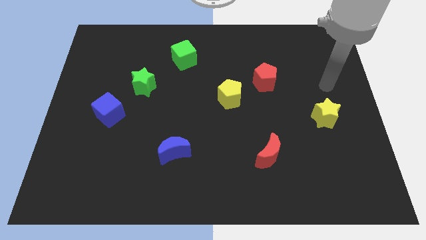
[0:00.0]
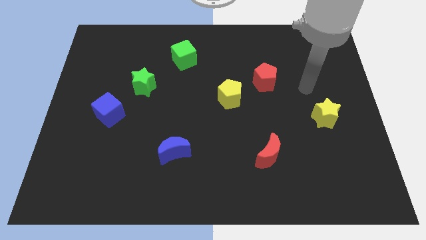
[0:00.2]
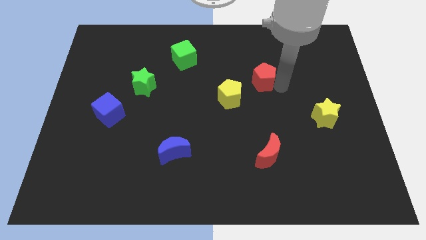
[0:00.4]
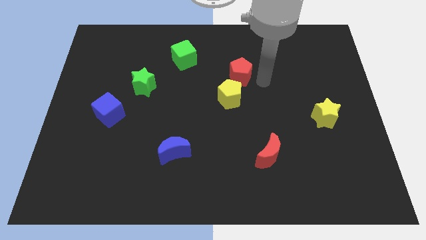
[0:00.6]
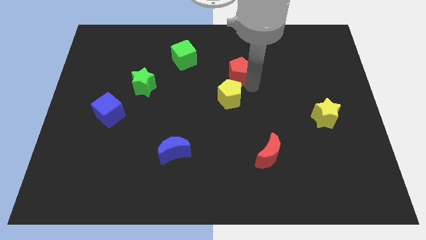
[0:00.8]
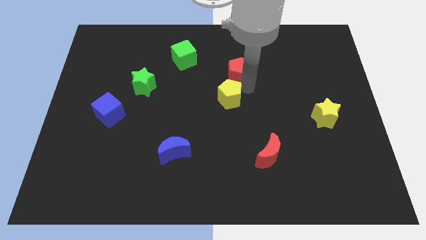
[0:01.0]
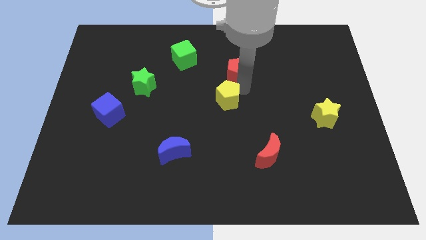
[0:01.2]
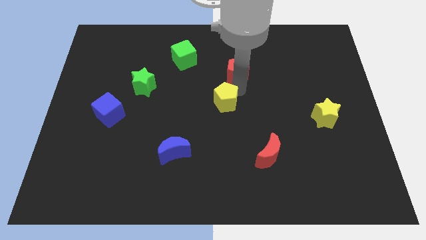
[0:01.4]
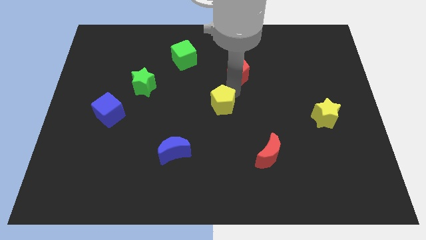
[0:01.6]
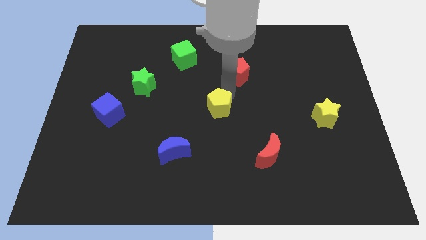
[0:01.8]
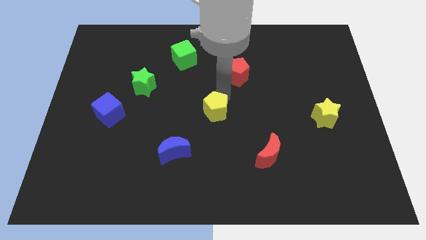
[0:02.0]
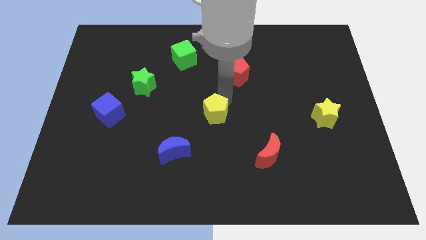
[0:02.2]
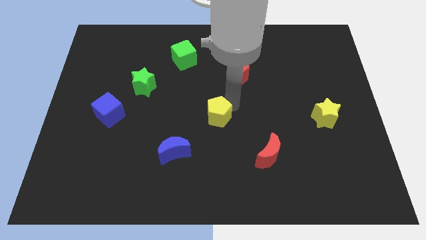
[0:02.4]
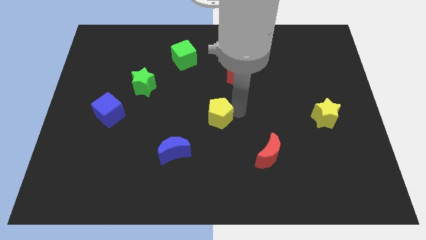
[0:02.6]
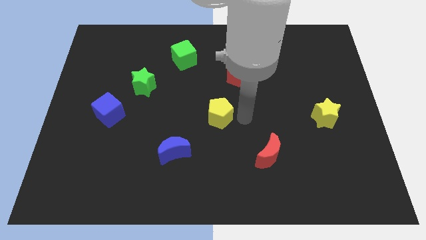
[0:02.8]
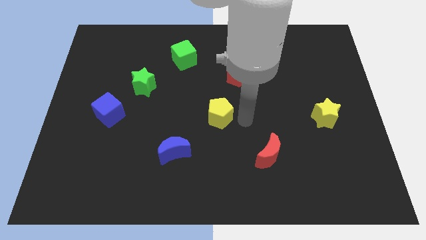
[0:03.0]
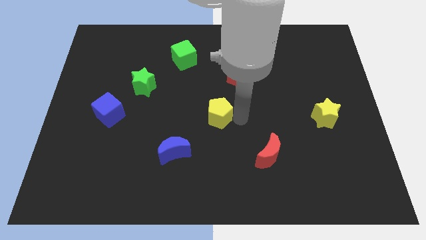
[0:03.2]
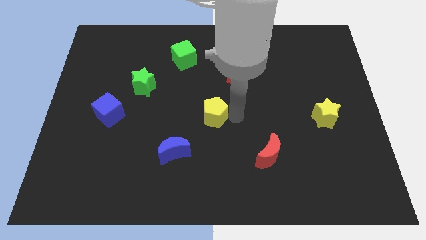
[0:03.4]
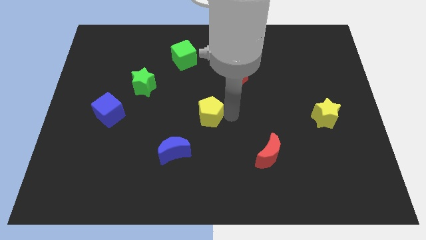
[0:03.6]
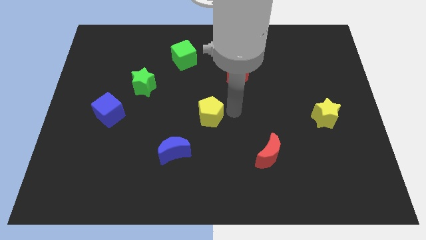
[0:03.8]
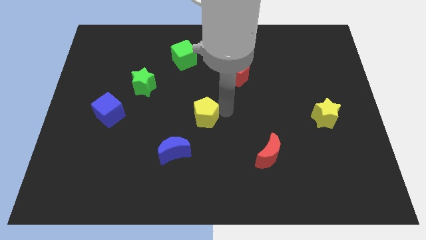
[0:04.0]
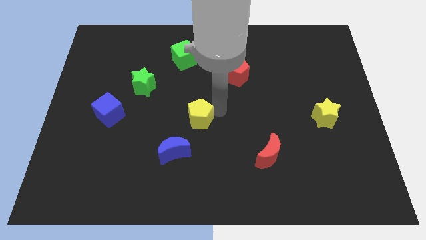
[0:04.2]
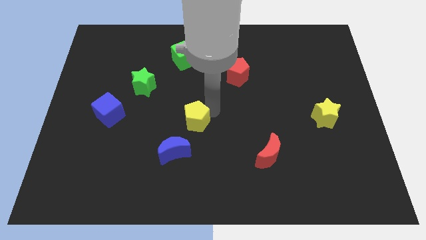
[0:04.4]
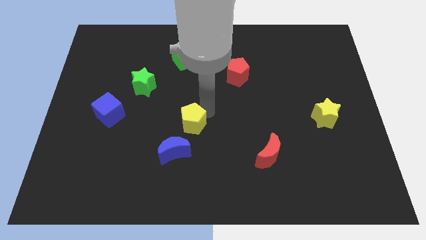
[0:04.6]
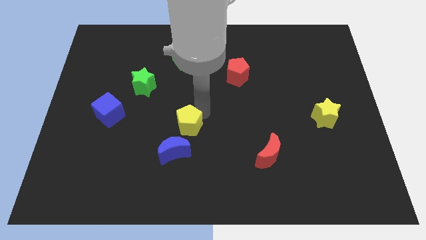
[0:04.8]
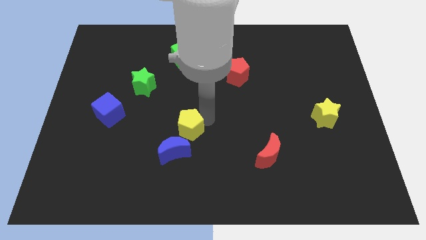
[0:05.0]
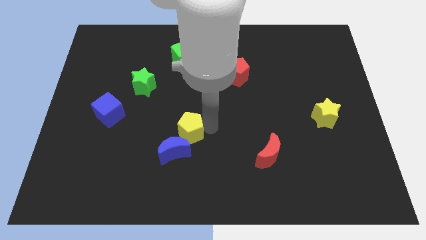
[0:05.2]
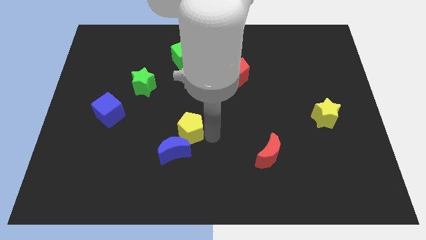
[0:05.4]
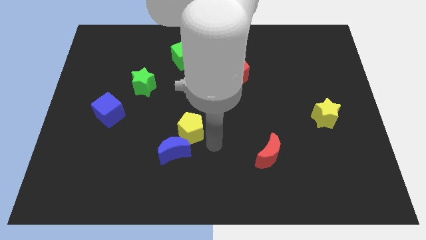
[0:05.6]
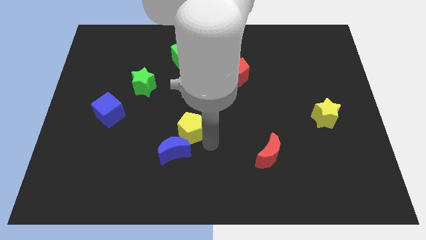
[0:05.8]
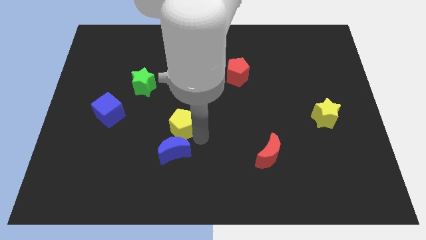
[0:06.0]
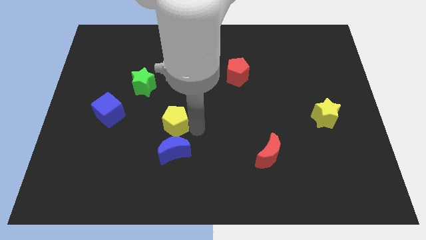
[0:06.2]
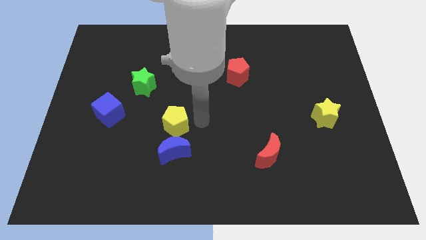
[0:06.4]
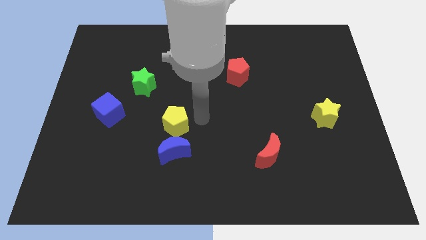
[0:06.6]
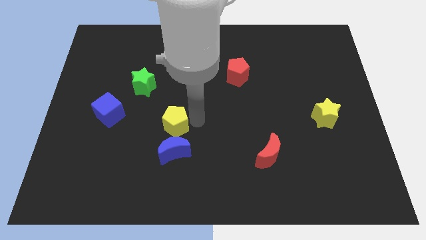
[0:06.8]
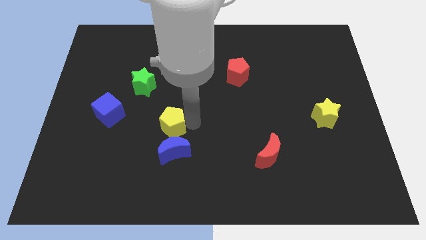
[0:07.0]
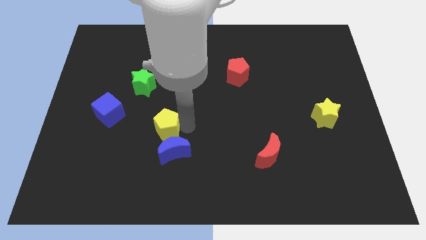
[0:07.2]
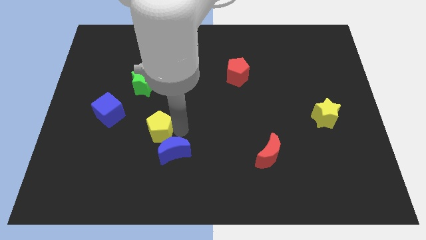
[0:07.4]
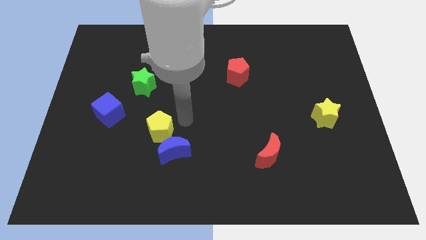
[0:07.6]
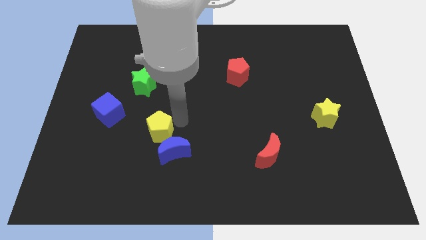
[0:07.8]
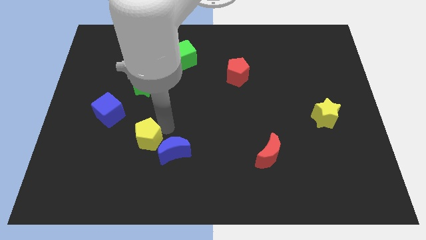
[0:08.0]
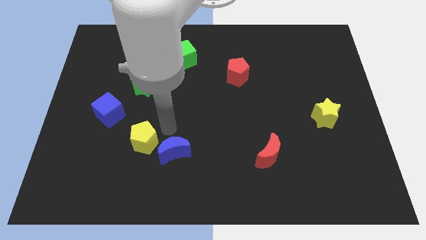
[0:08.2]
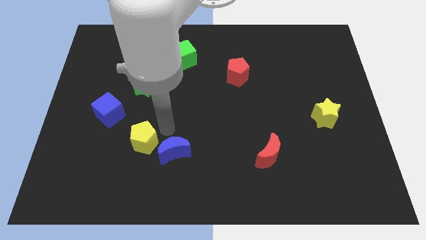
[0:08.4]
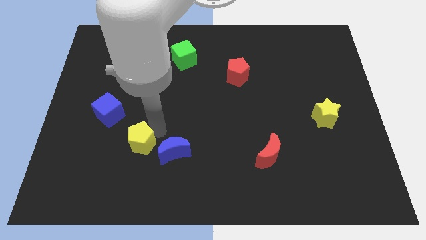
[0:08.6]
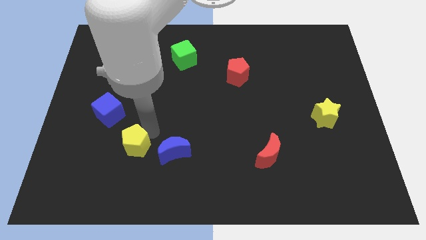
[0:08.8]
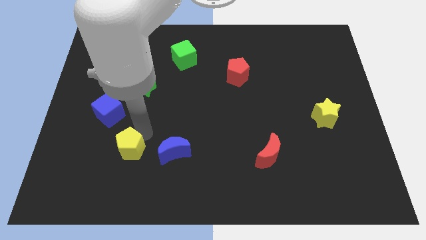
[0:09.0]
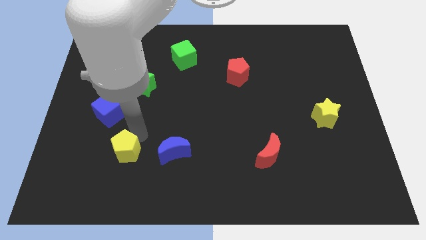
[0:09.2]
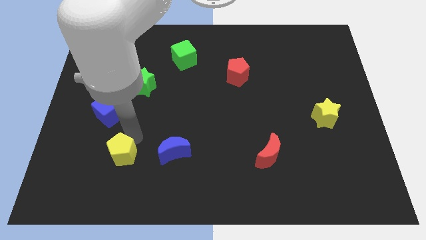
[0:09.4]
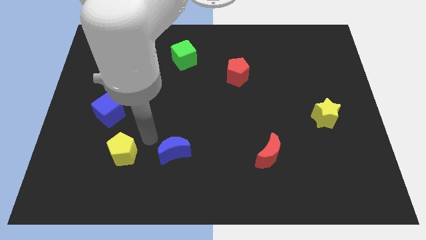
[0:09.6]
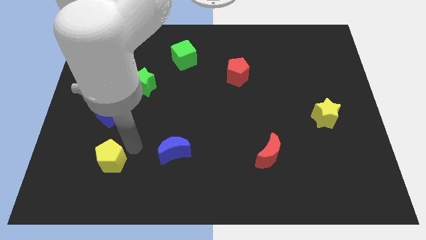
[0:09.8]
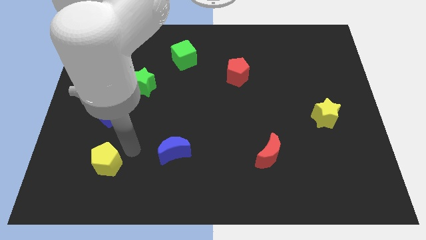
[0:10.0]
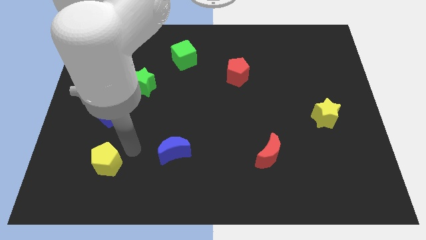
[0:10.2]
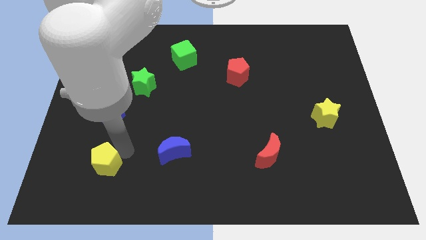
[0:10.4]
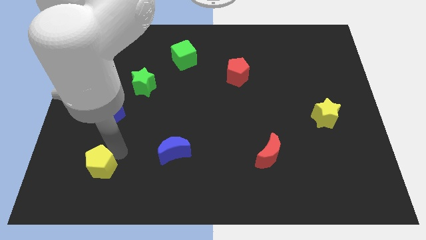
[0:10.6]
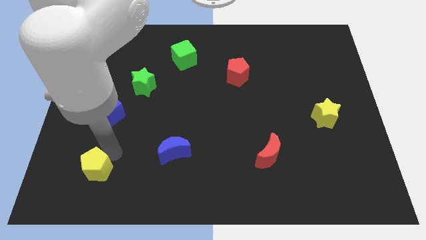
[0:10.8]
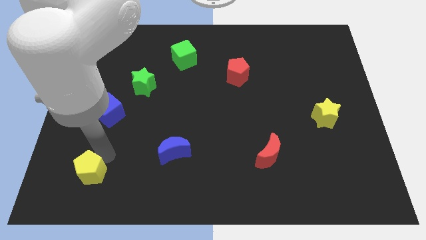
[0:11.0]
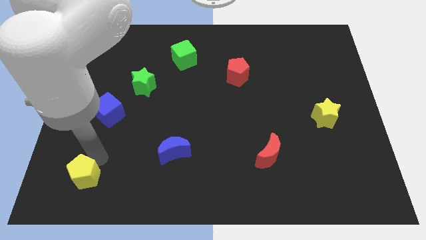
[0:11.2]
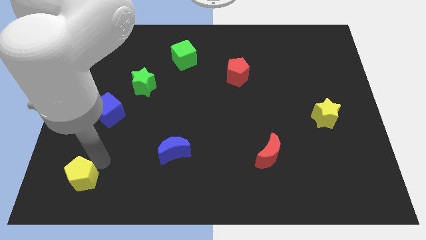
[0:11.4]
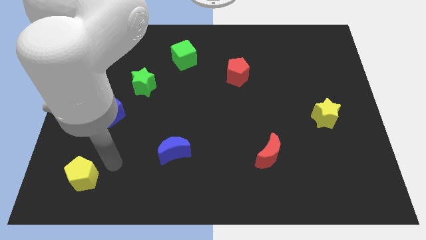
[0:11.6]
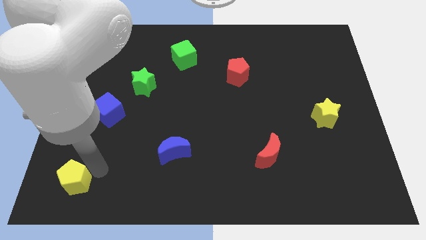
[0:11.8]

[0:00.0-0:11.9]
push the yellow pentagon to the bottom left
